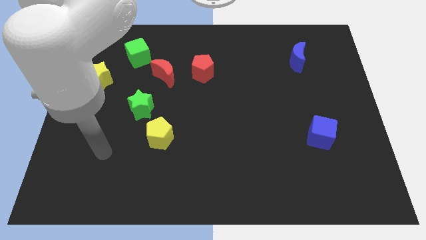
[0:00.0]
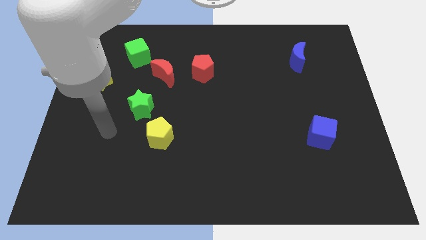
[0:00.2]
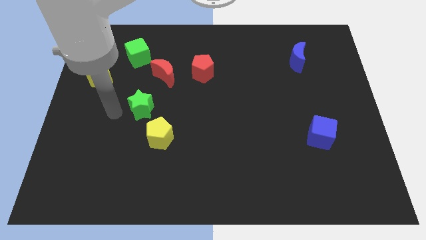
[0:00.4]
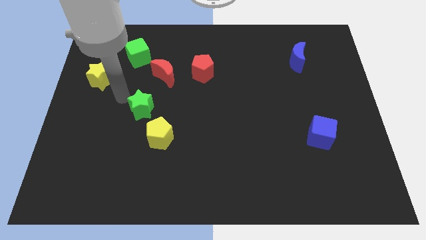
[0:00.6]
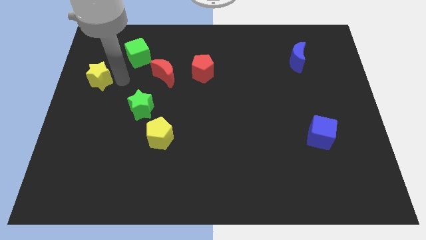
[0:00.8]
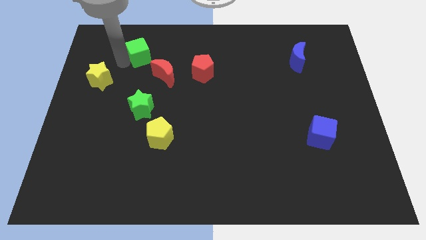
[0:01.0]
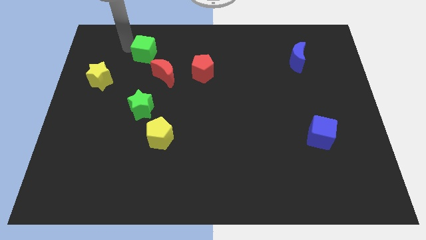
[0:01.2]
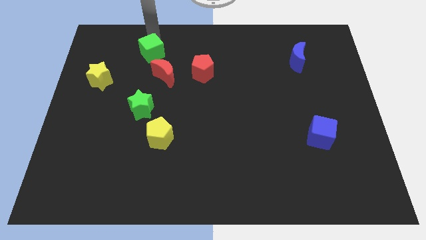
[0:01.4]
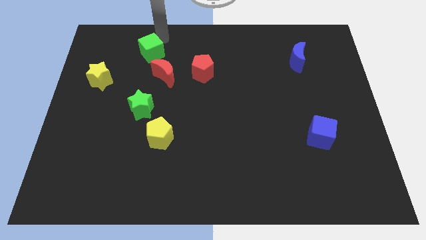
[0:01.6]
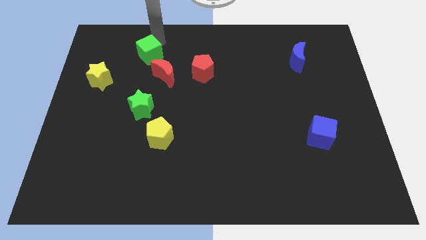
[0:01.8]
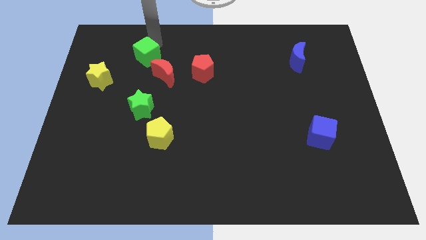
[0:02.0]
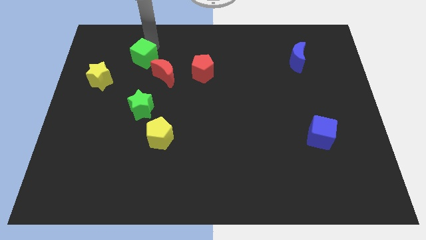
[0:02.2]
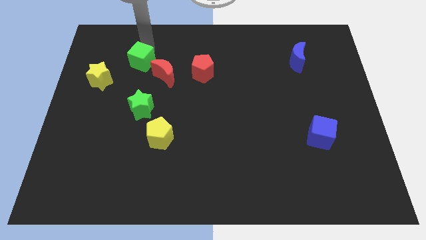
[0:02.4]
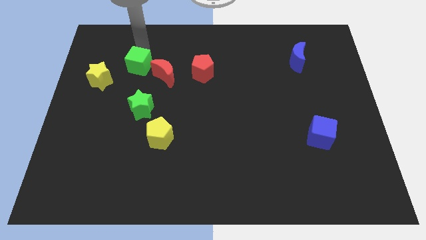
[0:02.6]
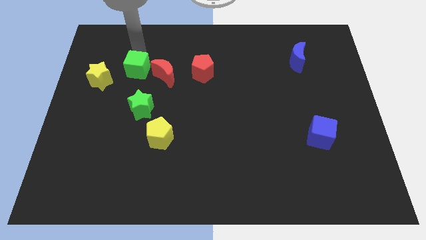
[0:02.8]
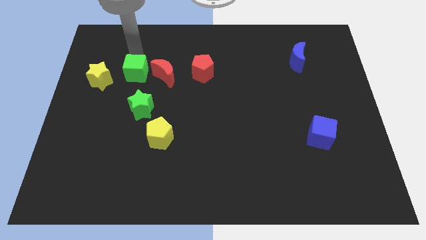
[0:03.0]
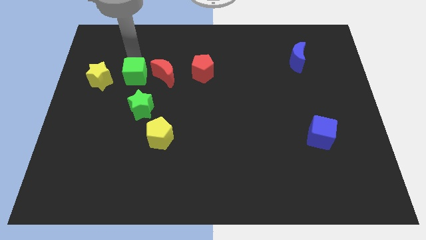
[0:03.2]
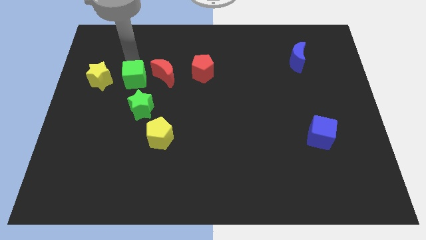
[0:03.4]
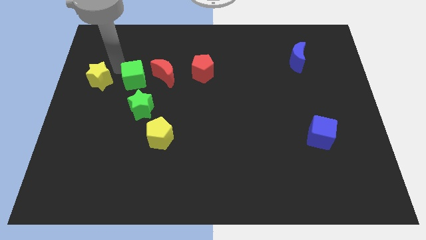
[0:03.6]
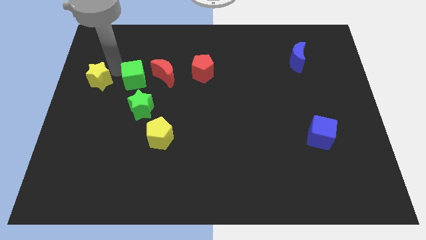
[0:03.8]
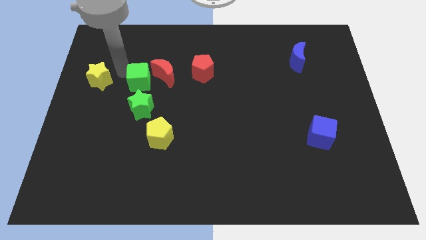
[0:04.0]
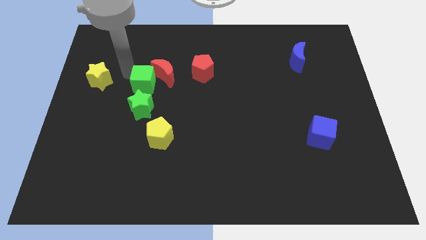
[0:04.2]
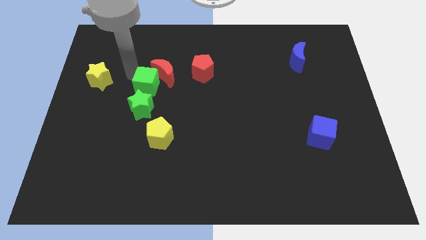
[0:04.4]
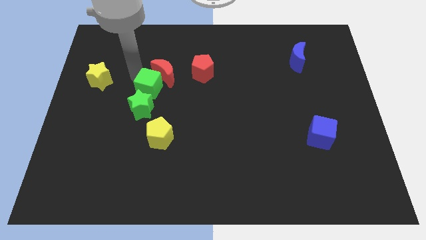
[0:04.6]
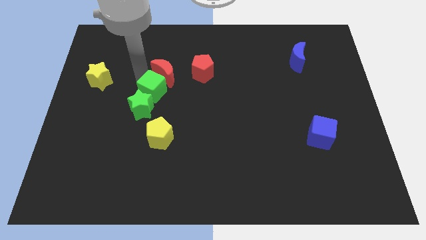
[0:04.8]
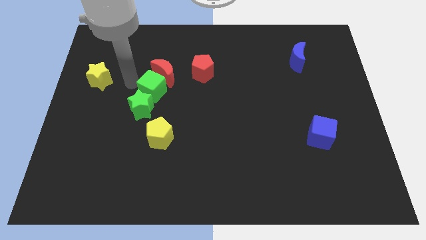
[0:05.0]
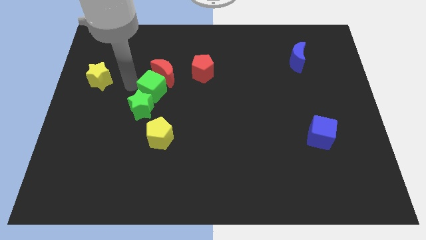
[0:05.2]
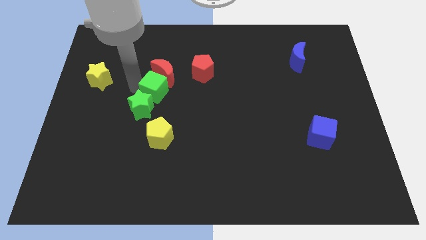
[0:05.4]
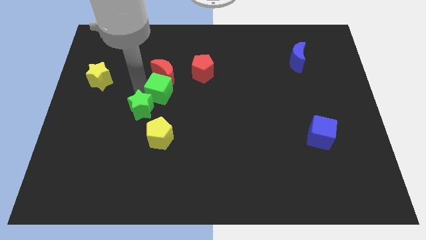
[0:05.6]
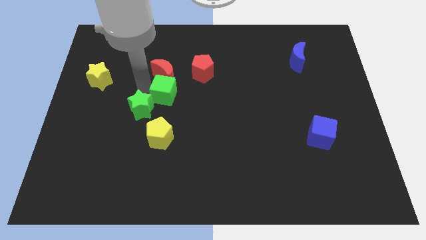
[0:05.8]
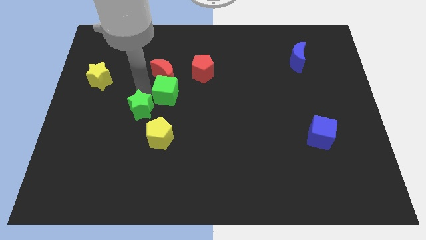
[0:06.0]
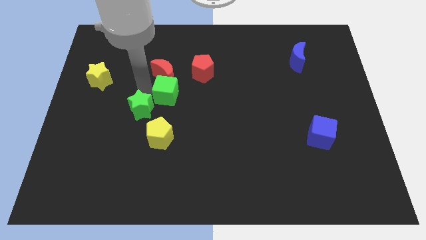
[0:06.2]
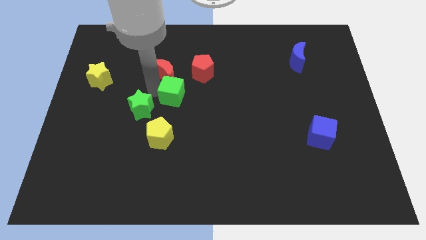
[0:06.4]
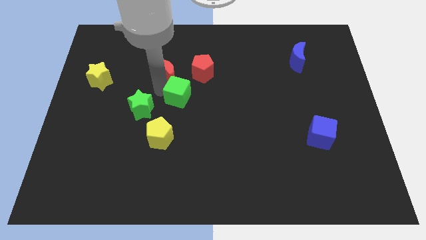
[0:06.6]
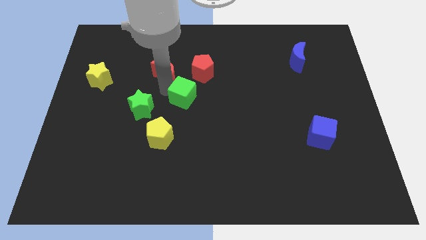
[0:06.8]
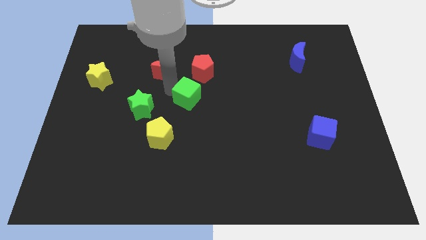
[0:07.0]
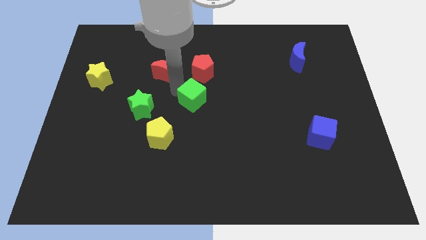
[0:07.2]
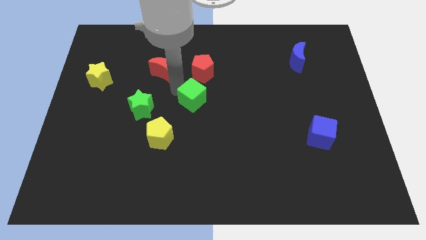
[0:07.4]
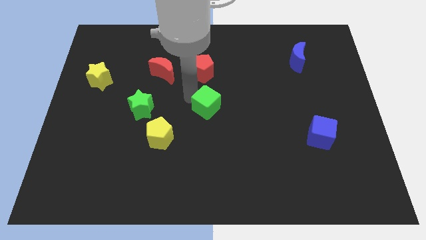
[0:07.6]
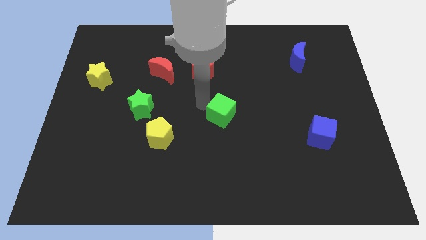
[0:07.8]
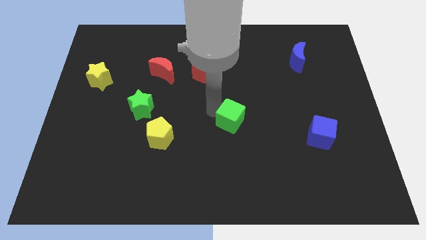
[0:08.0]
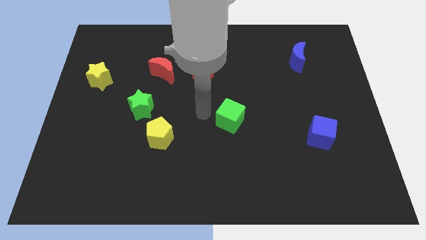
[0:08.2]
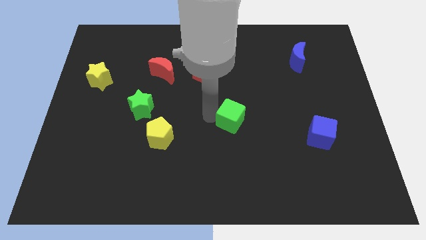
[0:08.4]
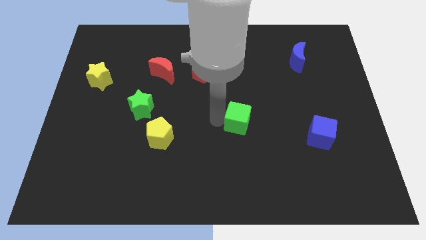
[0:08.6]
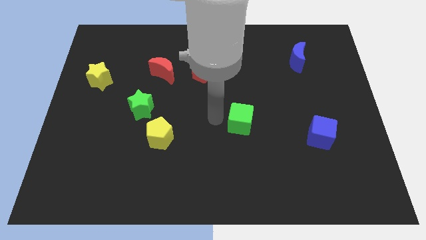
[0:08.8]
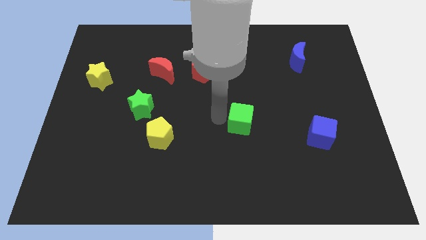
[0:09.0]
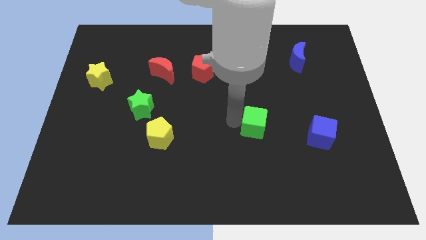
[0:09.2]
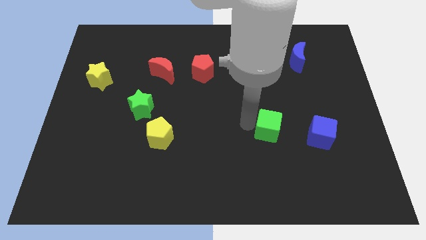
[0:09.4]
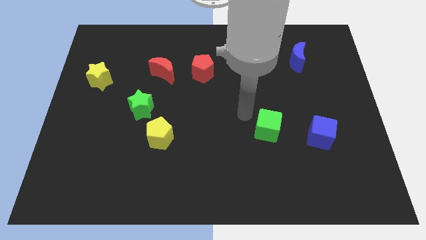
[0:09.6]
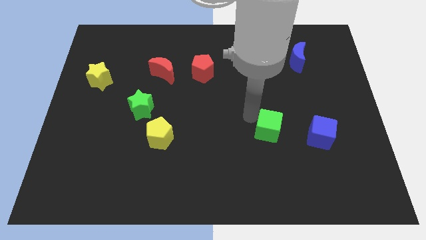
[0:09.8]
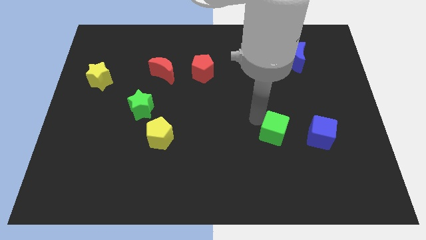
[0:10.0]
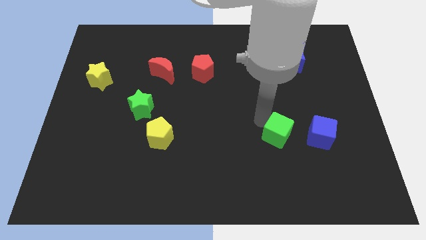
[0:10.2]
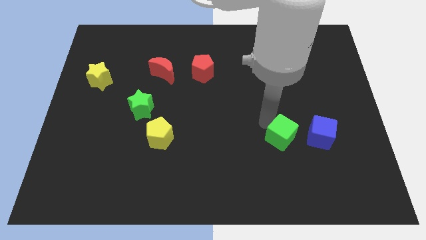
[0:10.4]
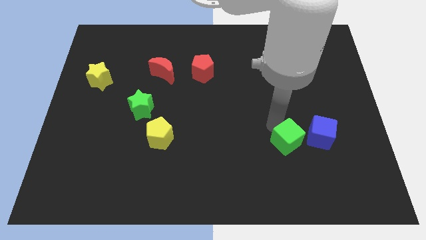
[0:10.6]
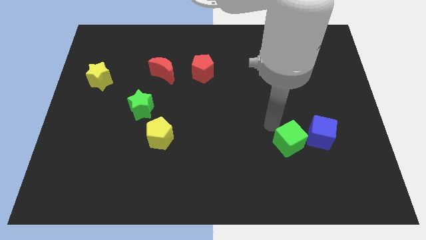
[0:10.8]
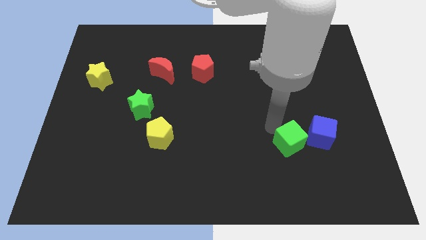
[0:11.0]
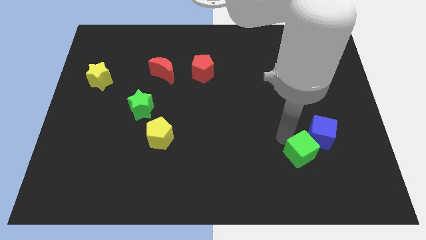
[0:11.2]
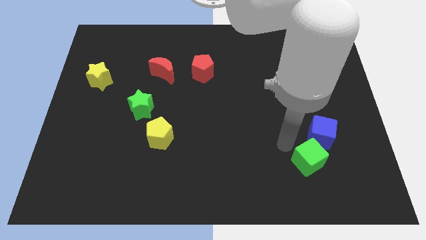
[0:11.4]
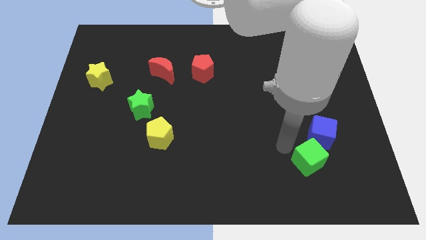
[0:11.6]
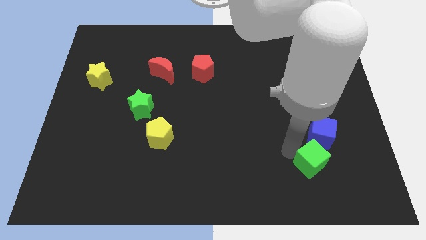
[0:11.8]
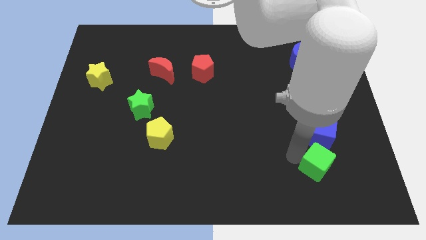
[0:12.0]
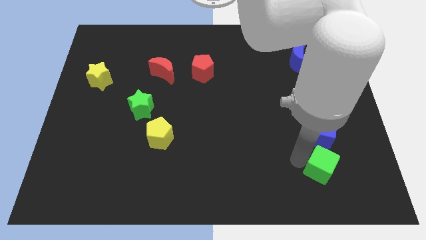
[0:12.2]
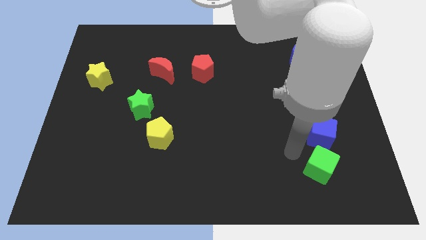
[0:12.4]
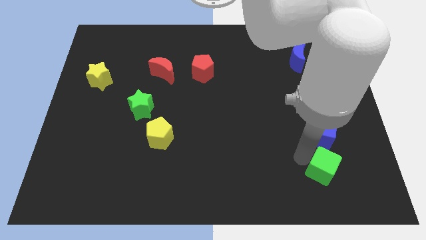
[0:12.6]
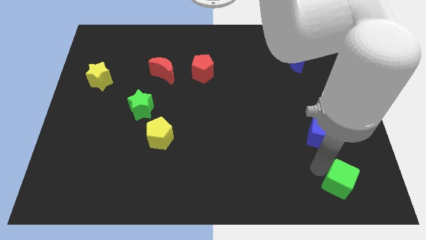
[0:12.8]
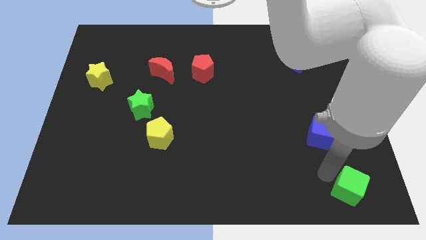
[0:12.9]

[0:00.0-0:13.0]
move the green cube to the bottom right corner
